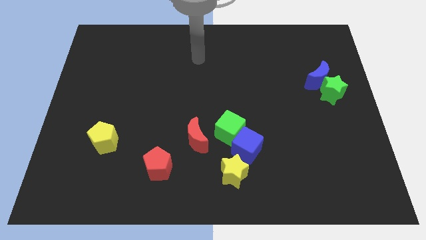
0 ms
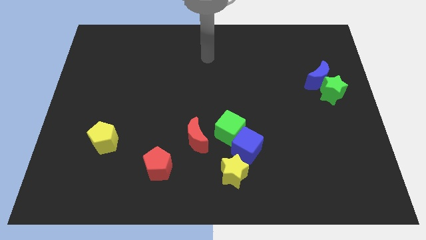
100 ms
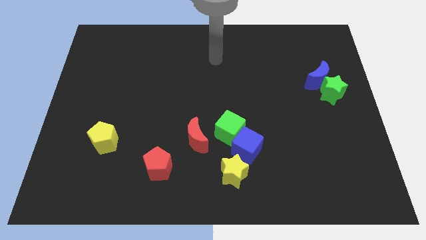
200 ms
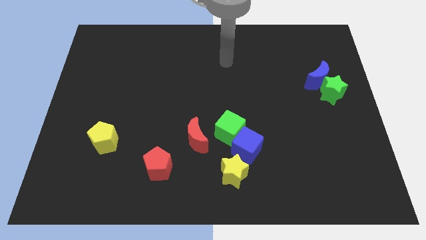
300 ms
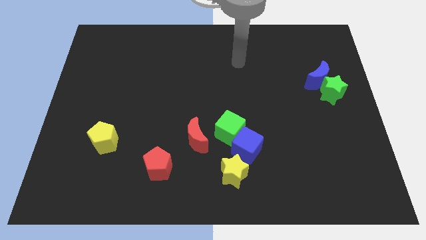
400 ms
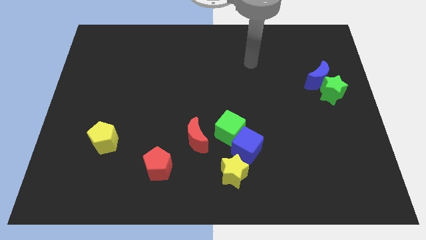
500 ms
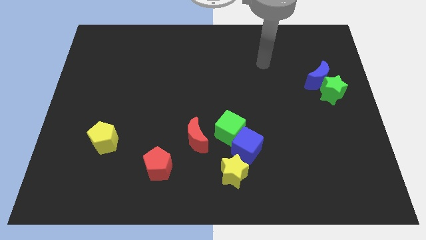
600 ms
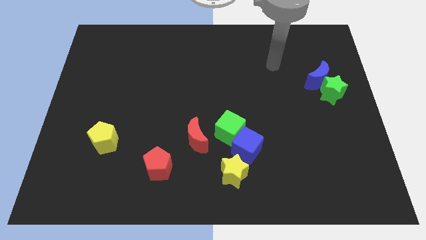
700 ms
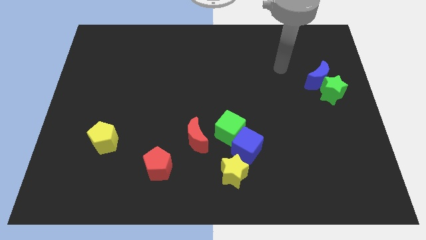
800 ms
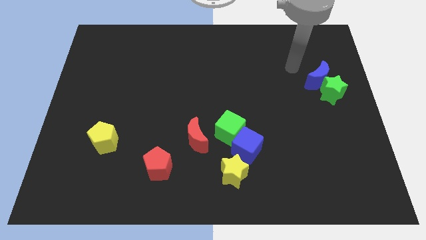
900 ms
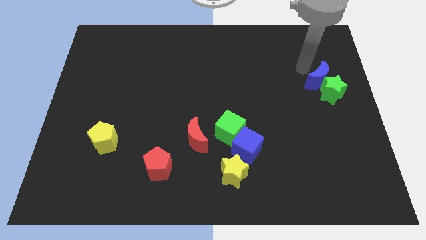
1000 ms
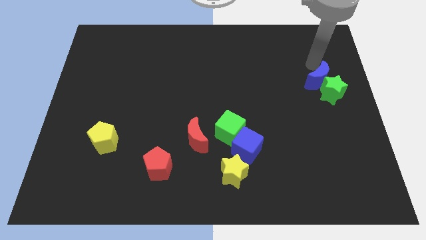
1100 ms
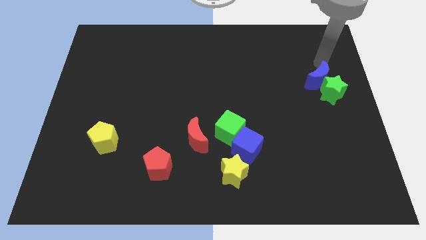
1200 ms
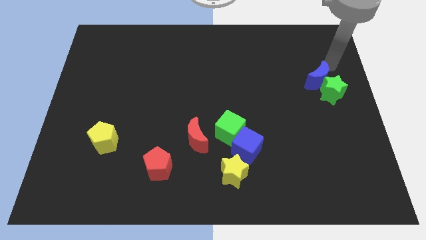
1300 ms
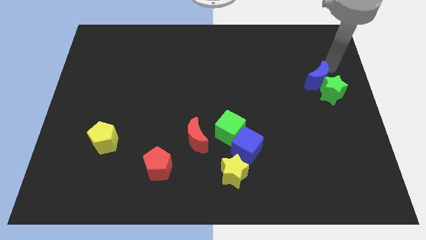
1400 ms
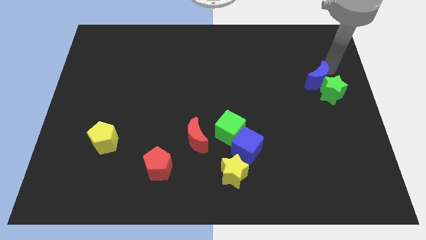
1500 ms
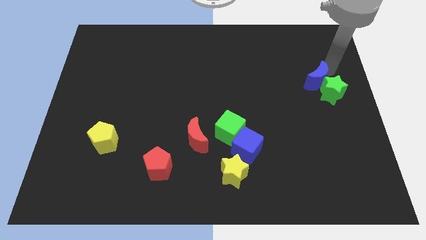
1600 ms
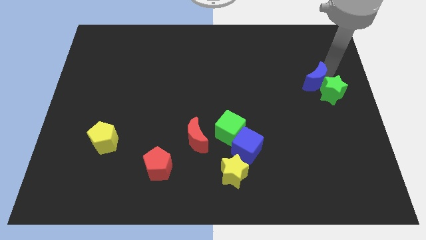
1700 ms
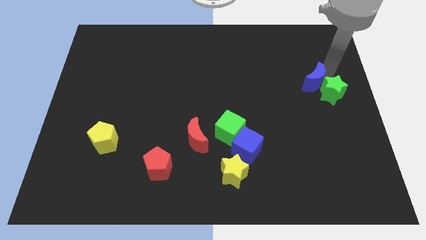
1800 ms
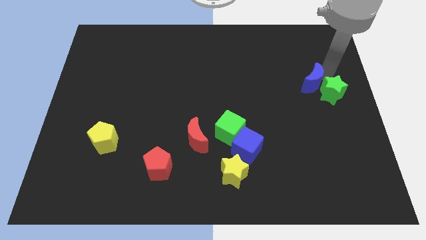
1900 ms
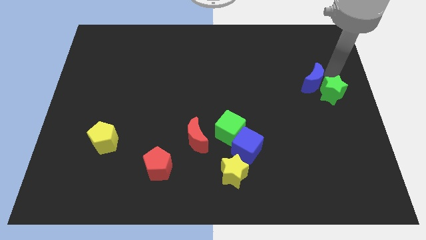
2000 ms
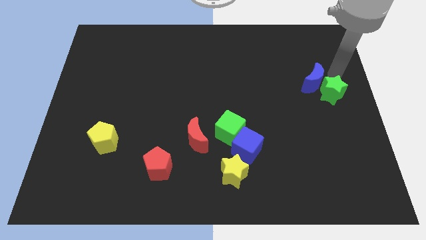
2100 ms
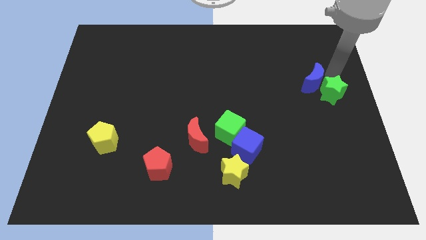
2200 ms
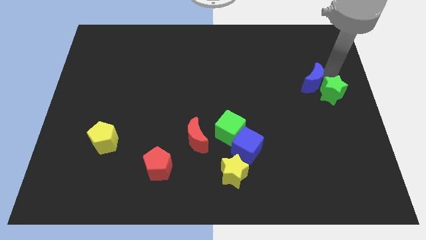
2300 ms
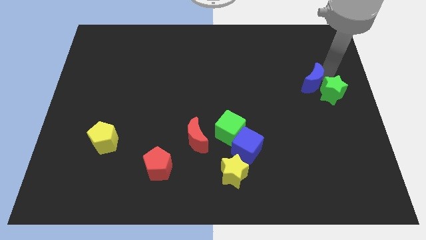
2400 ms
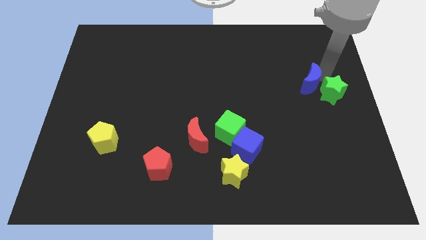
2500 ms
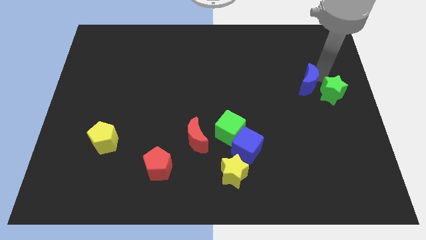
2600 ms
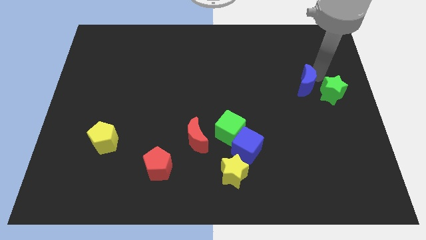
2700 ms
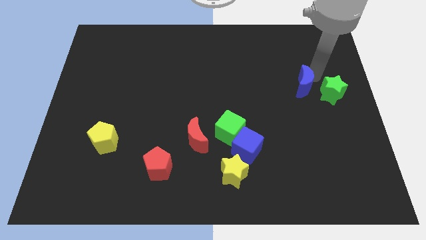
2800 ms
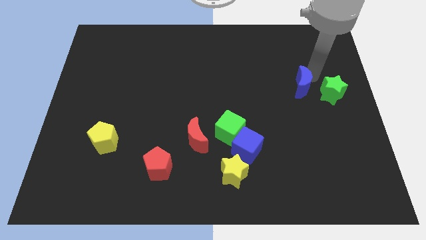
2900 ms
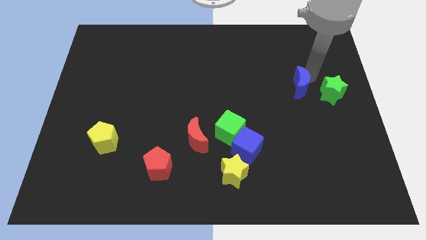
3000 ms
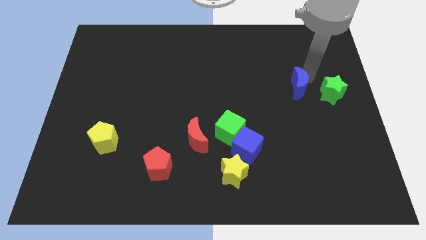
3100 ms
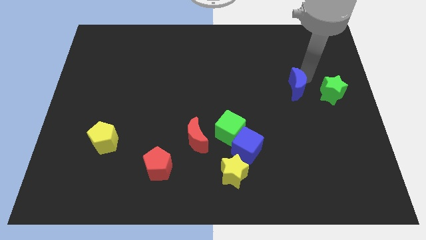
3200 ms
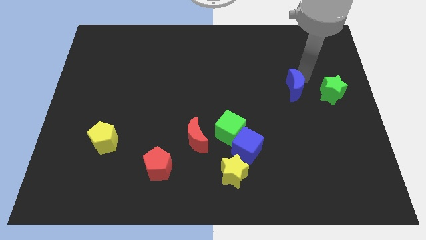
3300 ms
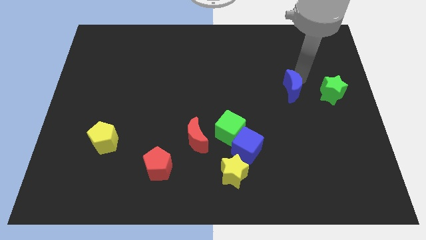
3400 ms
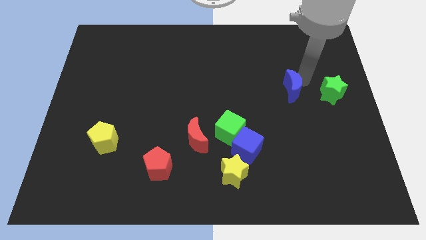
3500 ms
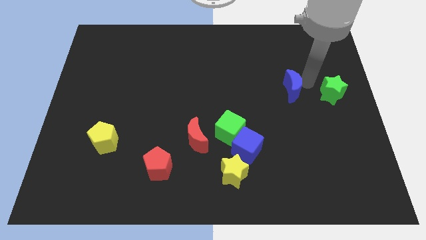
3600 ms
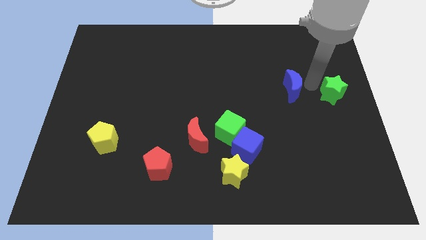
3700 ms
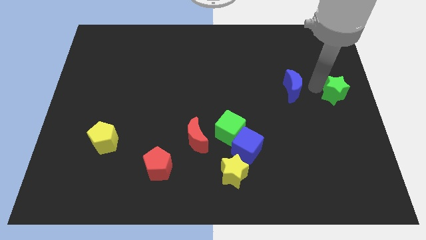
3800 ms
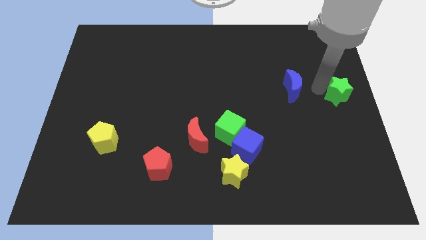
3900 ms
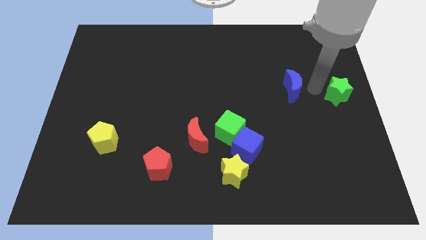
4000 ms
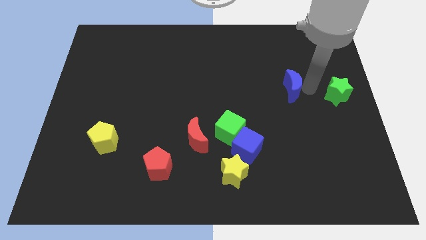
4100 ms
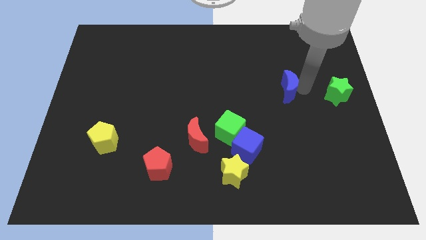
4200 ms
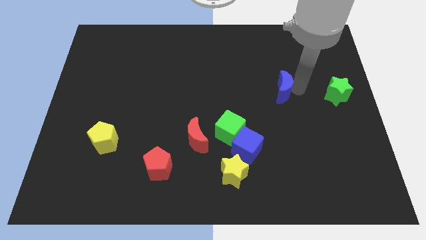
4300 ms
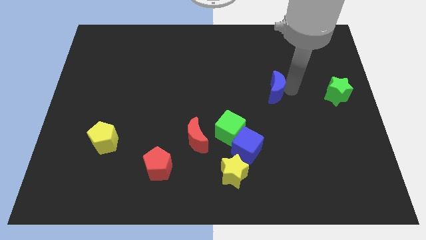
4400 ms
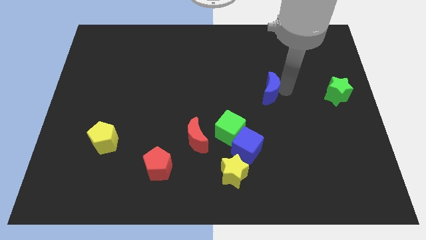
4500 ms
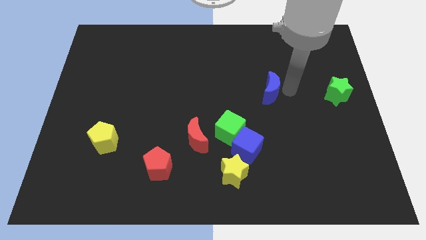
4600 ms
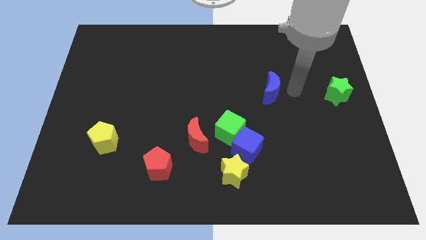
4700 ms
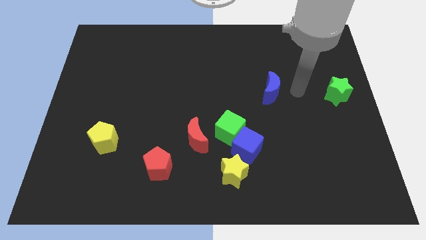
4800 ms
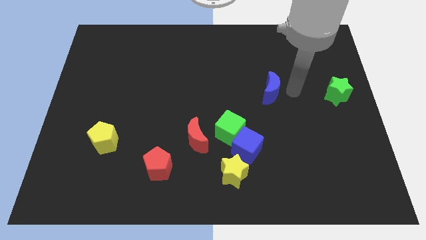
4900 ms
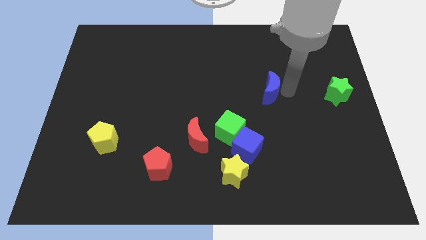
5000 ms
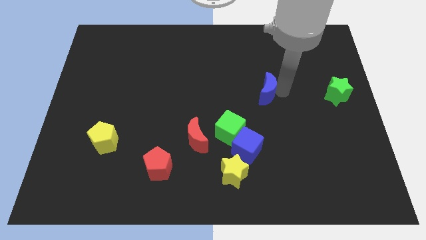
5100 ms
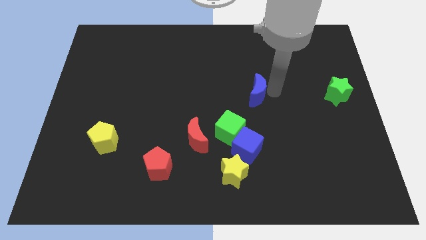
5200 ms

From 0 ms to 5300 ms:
put the blue moon to the middle of the board

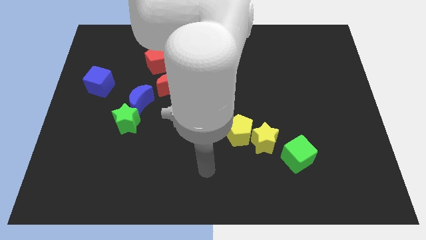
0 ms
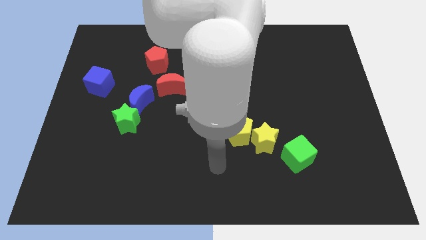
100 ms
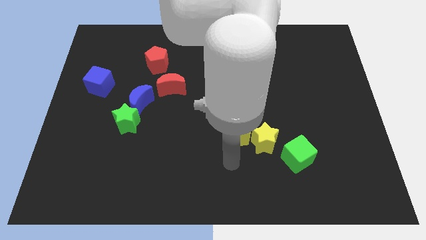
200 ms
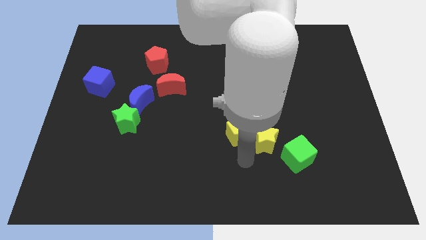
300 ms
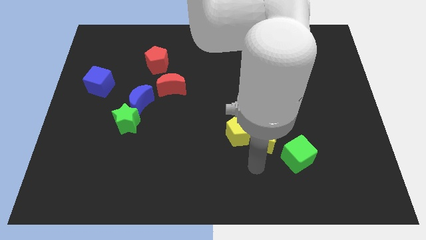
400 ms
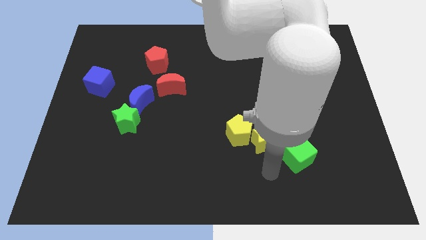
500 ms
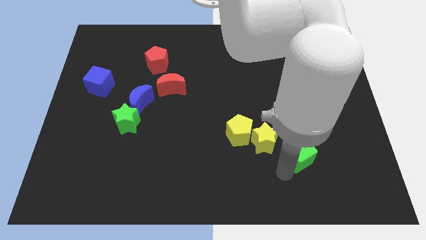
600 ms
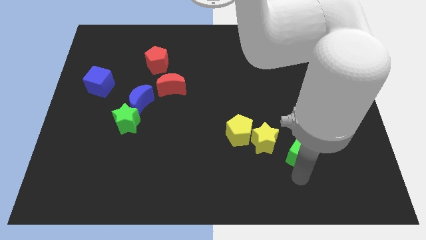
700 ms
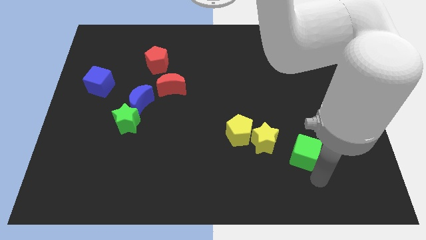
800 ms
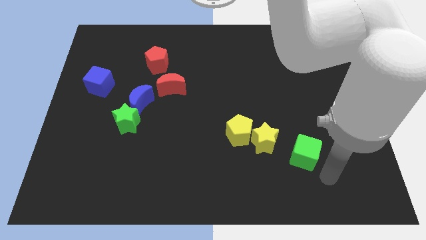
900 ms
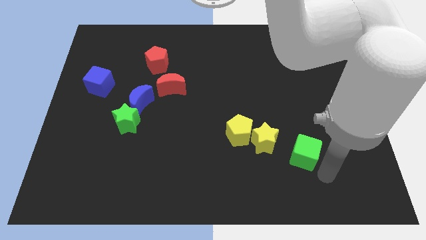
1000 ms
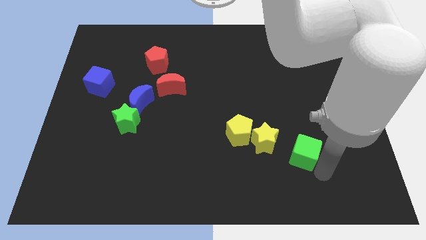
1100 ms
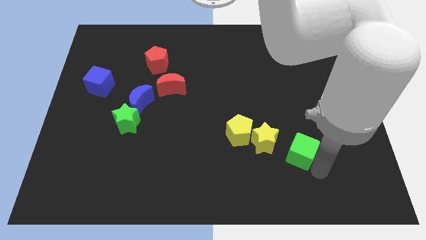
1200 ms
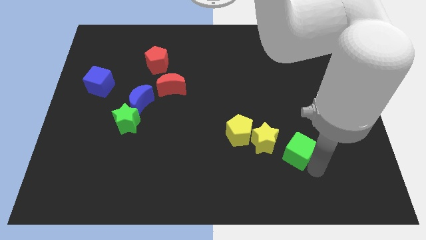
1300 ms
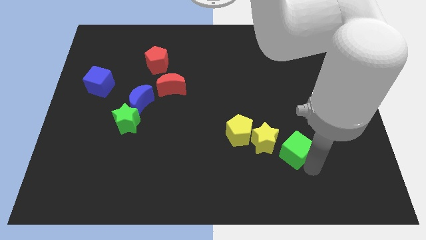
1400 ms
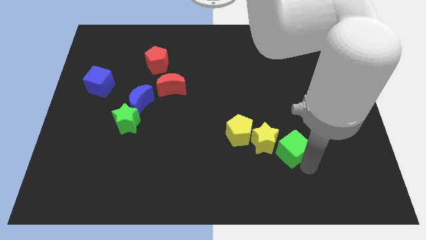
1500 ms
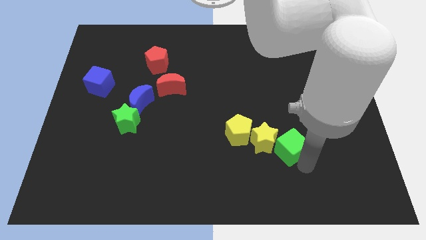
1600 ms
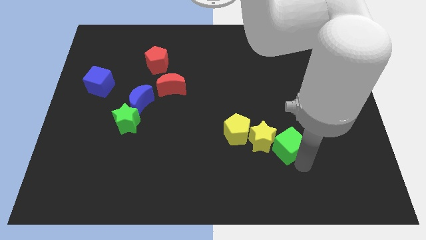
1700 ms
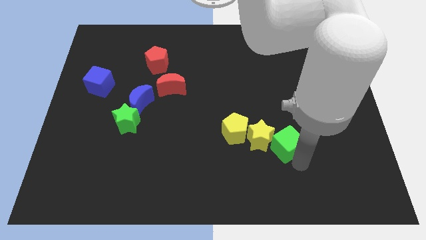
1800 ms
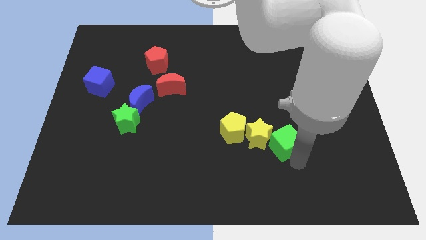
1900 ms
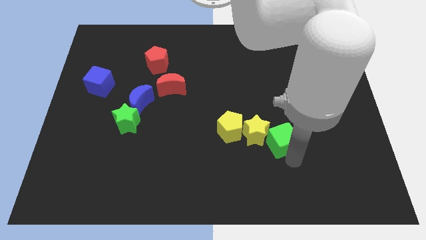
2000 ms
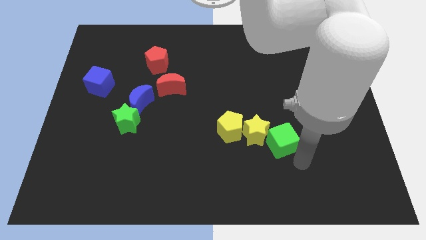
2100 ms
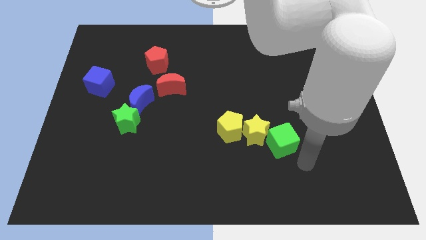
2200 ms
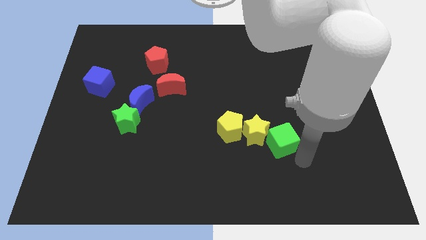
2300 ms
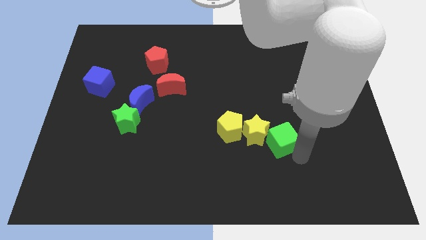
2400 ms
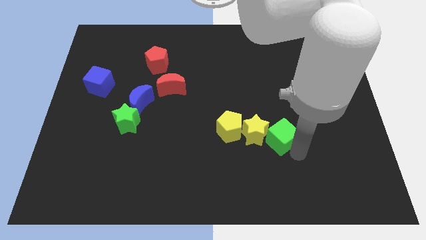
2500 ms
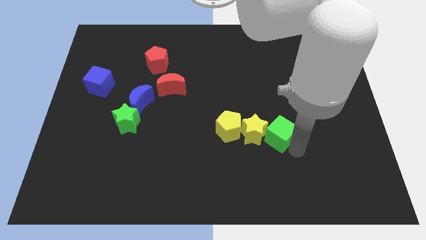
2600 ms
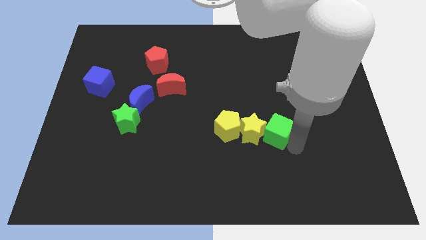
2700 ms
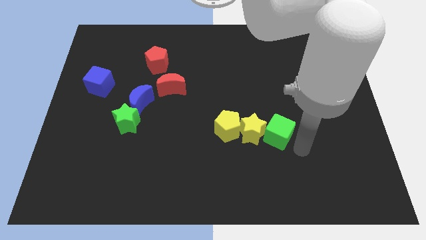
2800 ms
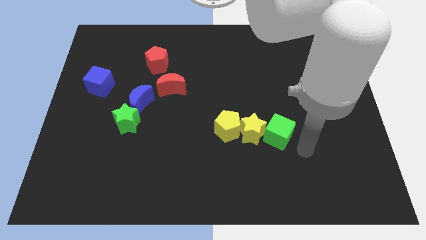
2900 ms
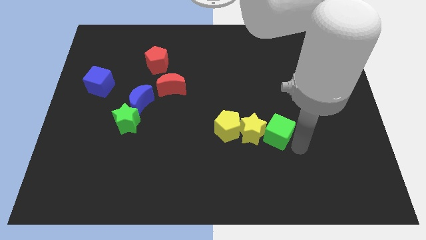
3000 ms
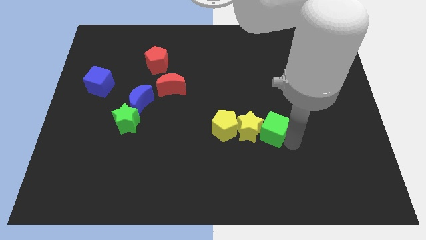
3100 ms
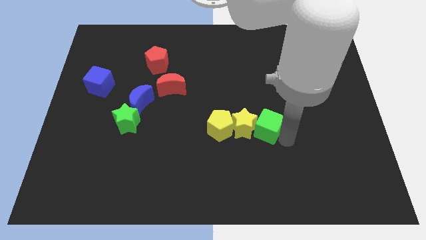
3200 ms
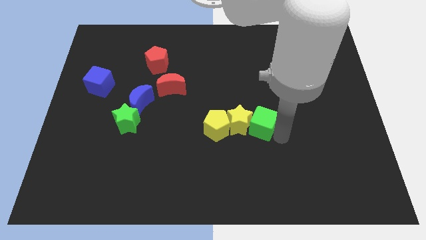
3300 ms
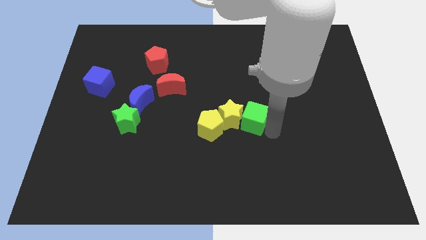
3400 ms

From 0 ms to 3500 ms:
move the green cube to the center
